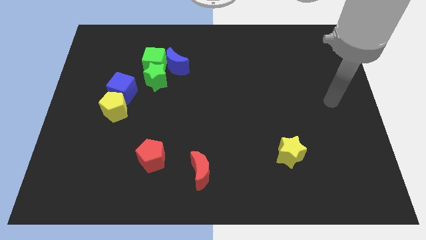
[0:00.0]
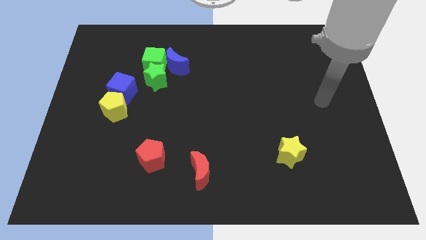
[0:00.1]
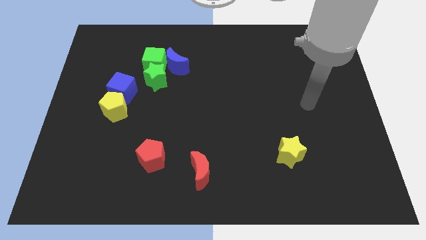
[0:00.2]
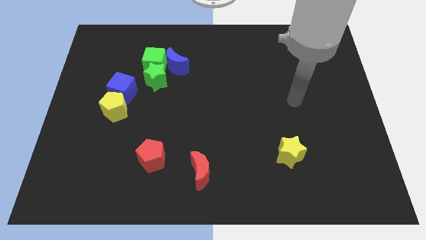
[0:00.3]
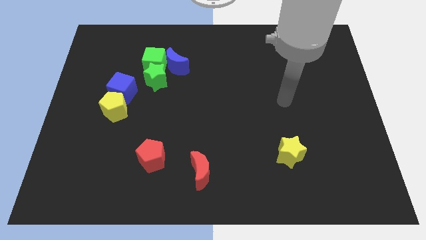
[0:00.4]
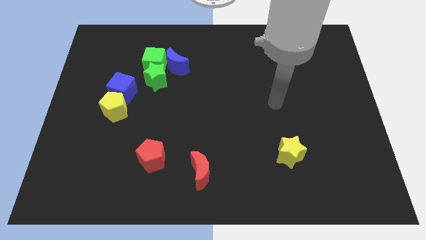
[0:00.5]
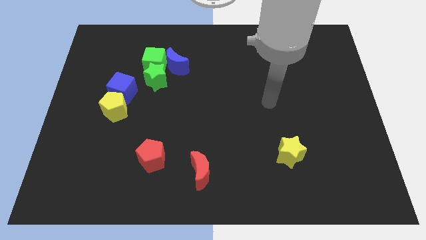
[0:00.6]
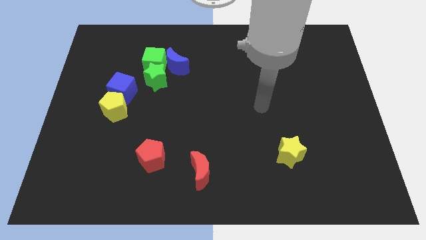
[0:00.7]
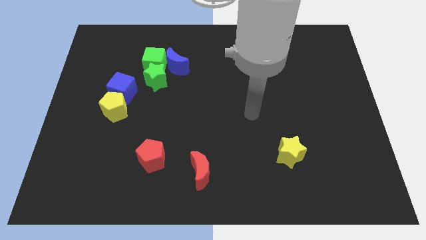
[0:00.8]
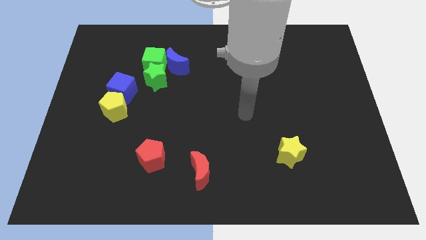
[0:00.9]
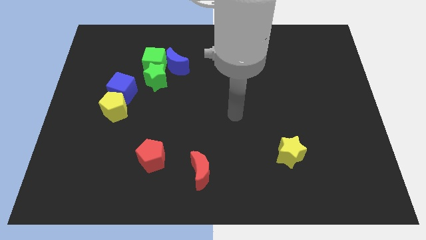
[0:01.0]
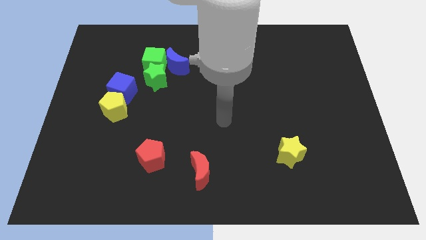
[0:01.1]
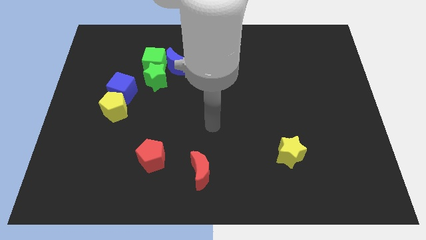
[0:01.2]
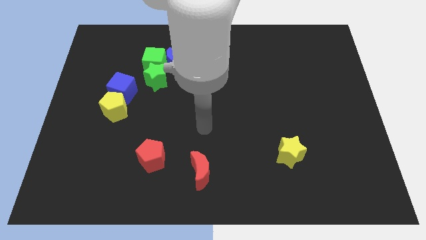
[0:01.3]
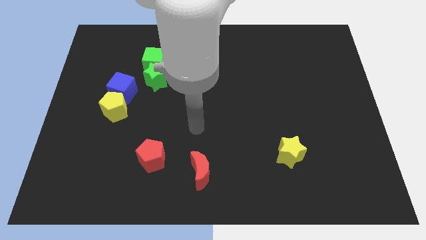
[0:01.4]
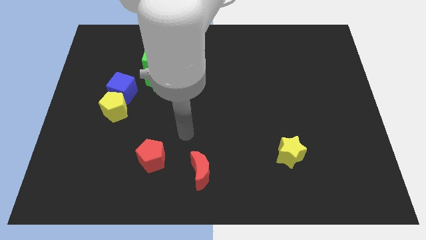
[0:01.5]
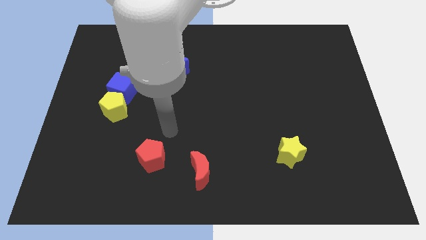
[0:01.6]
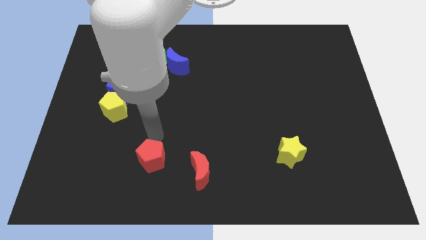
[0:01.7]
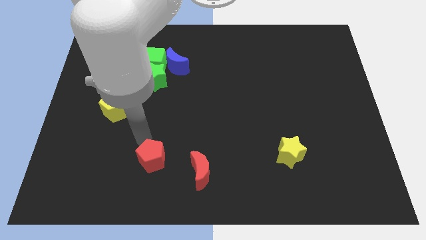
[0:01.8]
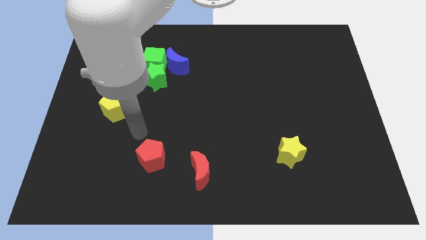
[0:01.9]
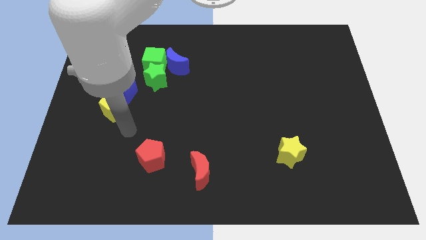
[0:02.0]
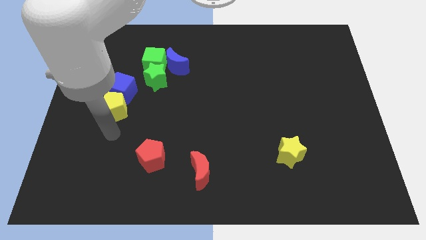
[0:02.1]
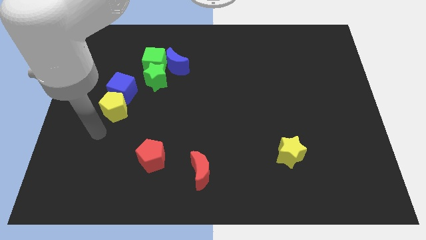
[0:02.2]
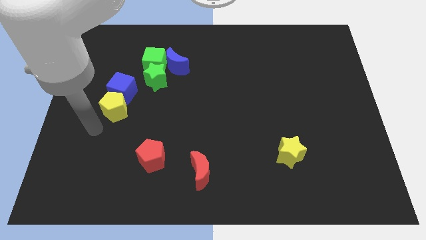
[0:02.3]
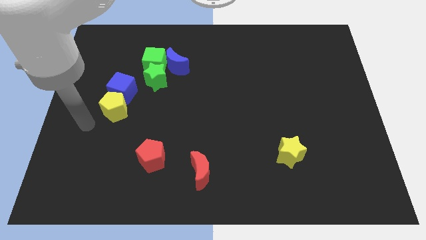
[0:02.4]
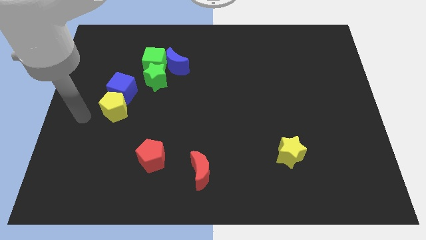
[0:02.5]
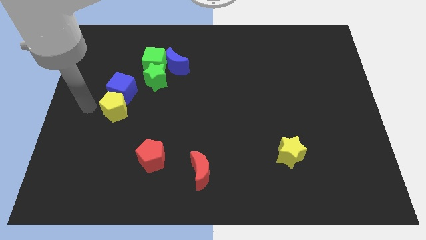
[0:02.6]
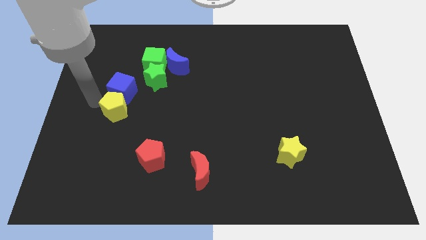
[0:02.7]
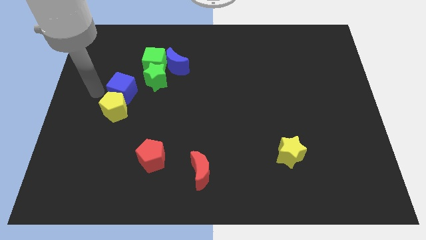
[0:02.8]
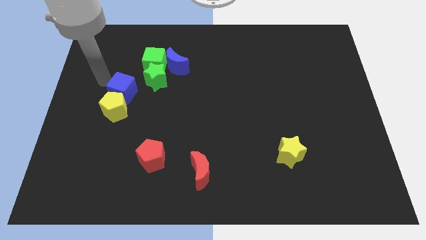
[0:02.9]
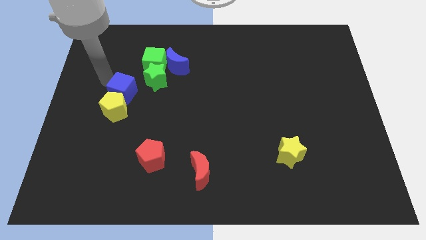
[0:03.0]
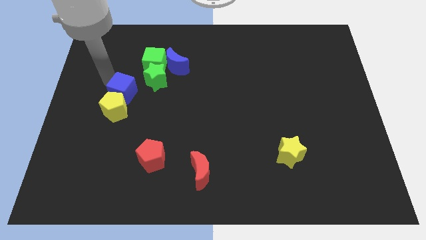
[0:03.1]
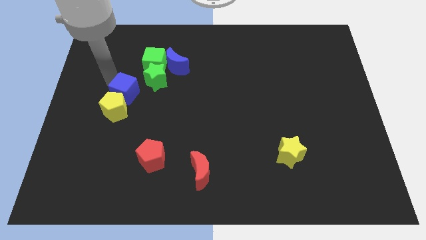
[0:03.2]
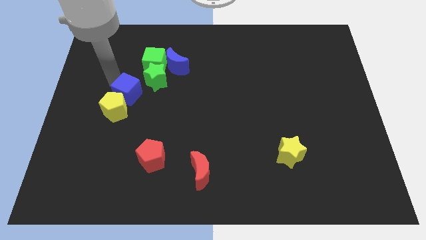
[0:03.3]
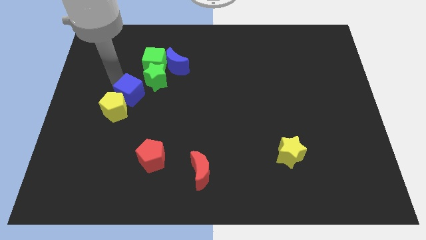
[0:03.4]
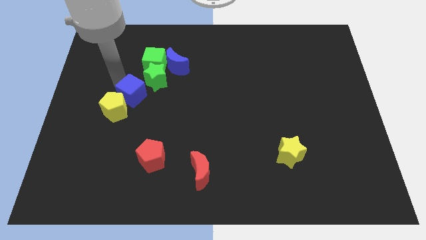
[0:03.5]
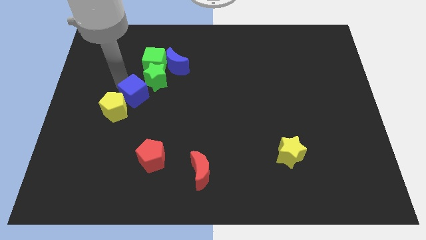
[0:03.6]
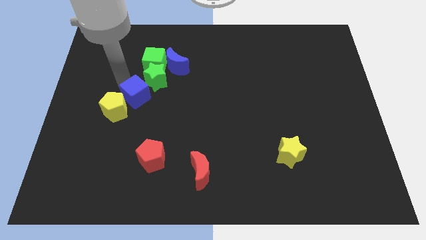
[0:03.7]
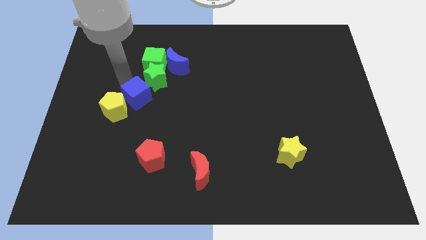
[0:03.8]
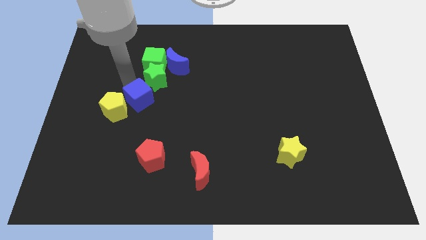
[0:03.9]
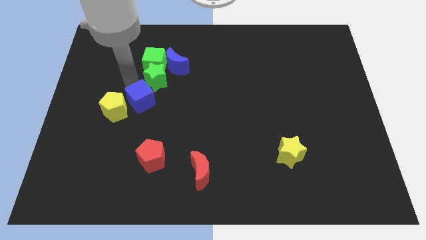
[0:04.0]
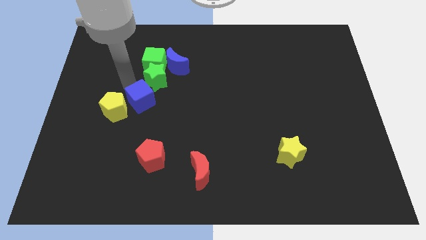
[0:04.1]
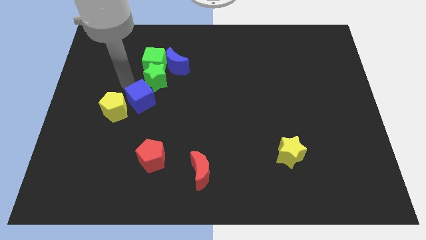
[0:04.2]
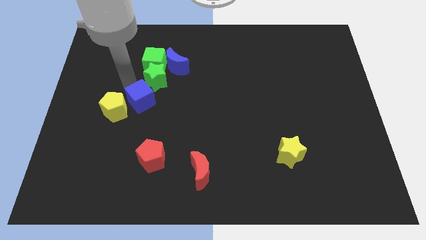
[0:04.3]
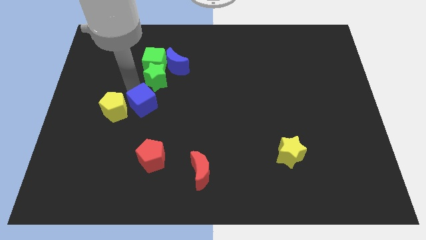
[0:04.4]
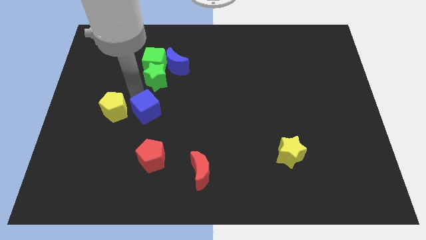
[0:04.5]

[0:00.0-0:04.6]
slightly push the blue cube down and then to the right

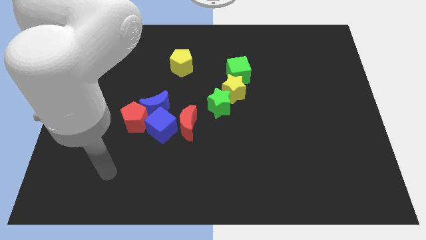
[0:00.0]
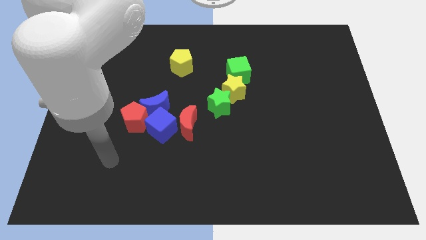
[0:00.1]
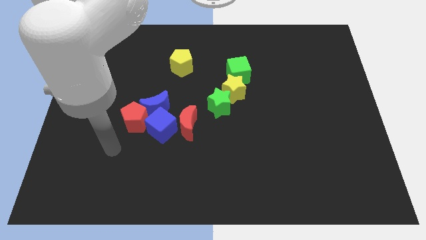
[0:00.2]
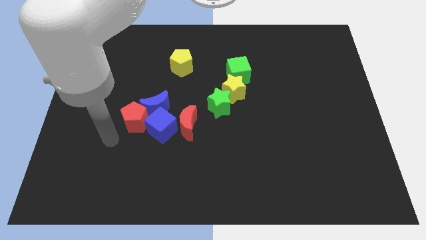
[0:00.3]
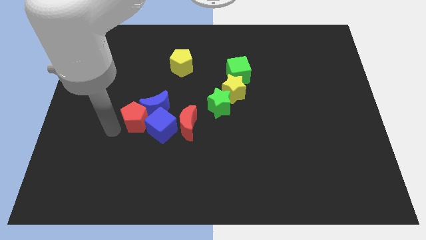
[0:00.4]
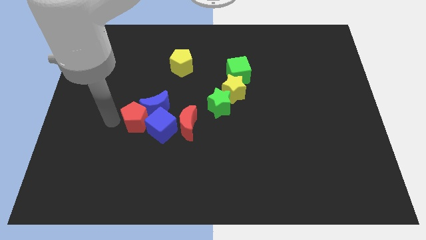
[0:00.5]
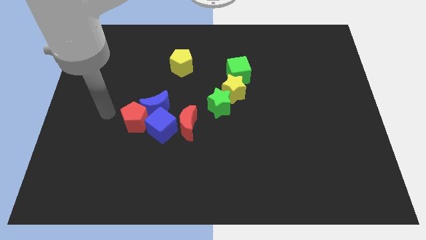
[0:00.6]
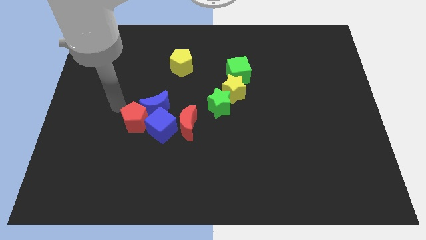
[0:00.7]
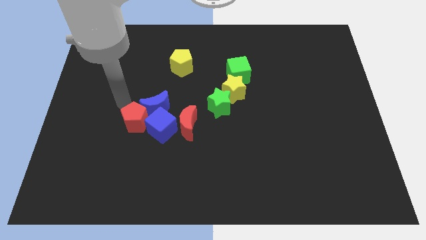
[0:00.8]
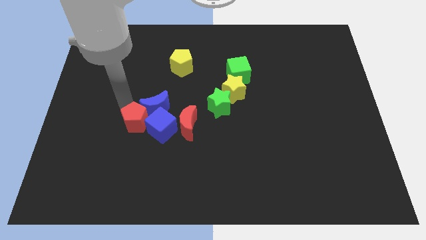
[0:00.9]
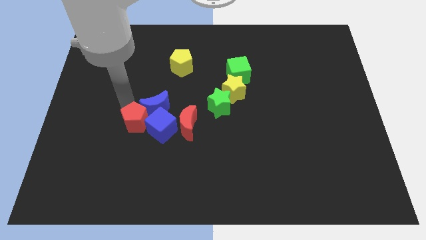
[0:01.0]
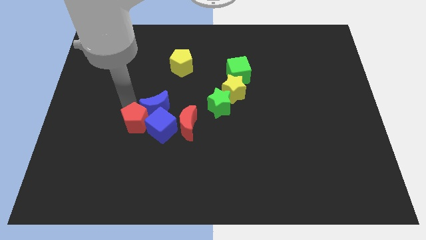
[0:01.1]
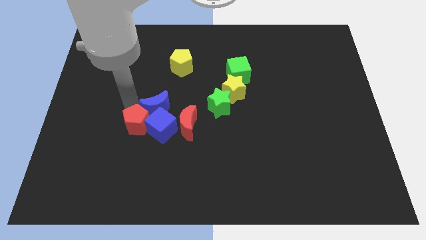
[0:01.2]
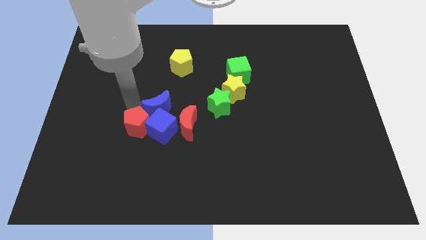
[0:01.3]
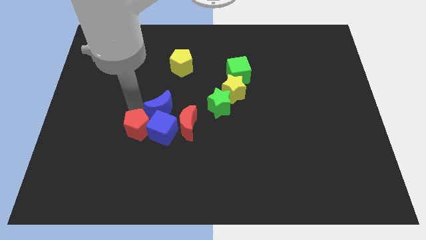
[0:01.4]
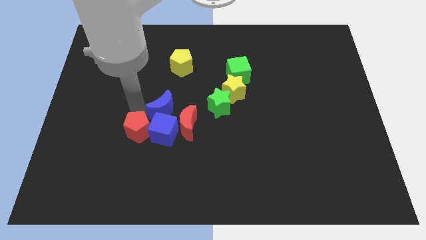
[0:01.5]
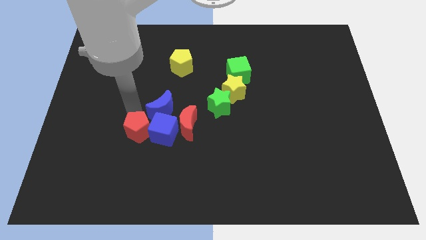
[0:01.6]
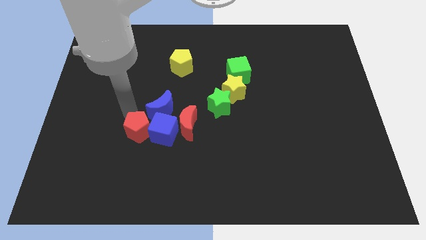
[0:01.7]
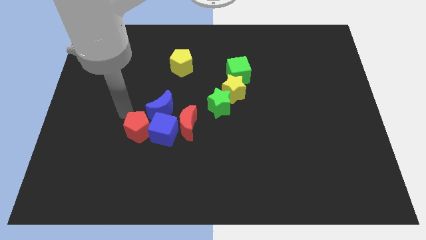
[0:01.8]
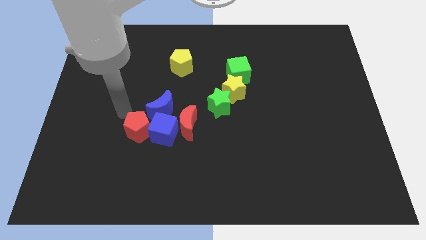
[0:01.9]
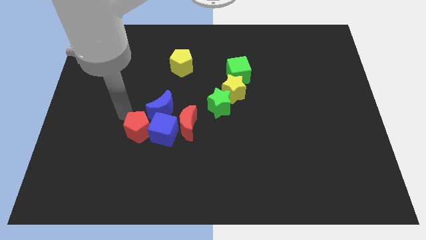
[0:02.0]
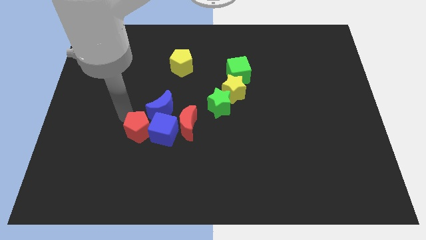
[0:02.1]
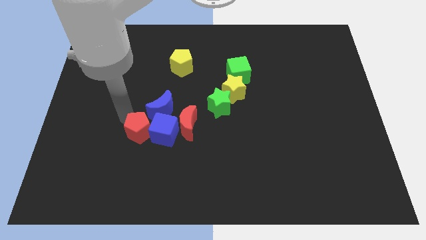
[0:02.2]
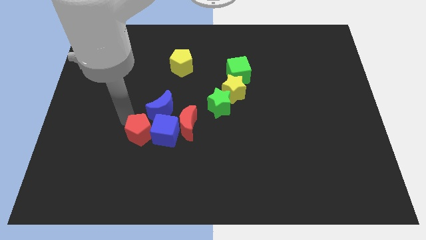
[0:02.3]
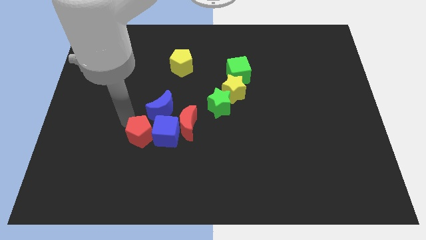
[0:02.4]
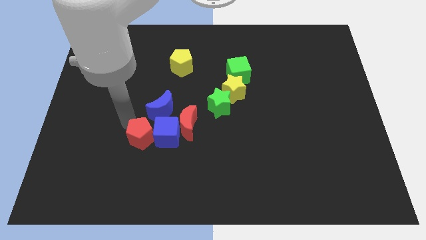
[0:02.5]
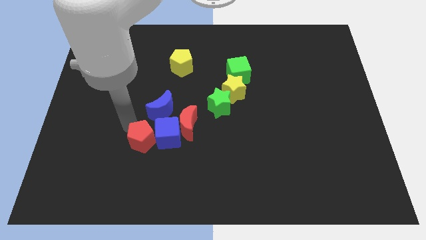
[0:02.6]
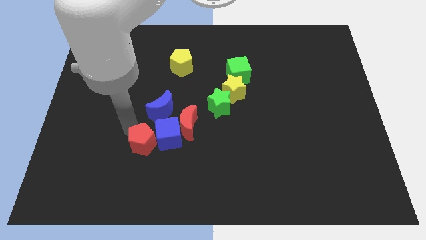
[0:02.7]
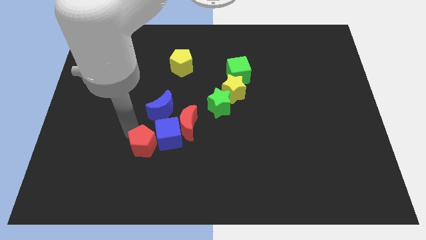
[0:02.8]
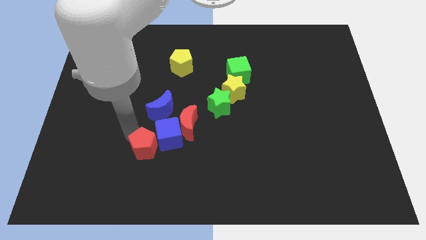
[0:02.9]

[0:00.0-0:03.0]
move the red pentagon downwards and to the right somewhat

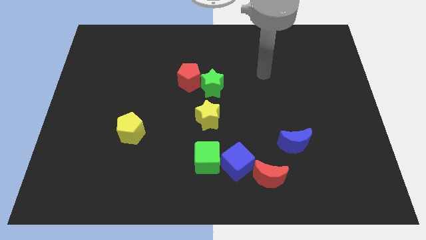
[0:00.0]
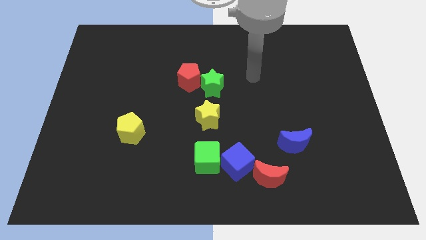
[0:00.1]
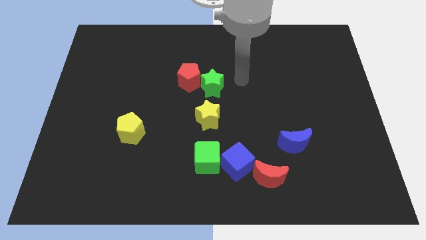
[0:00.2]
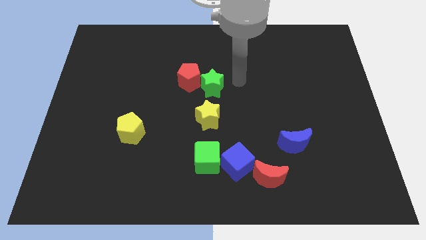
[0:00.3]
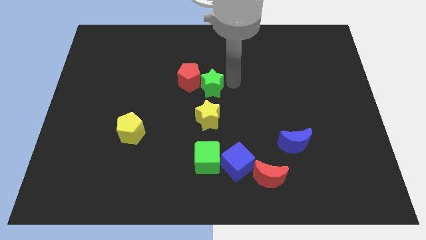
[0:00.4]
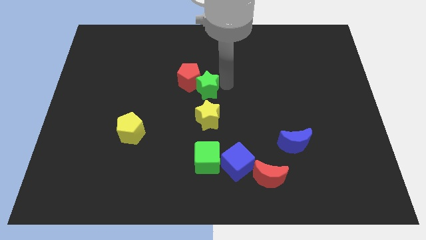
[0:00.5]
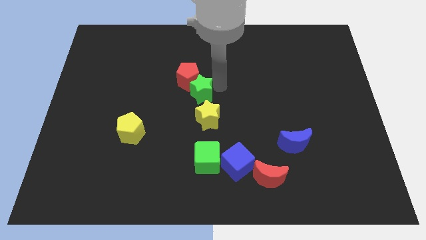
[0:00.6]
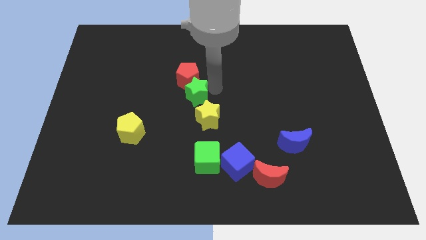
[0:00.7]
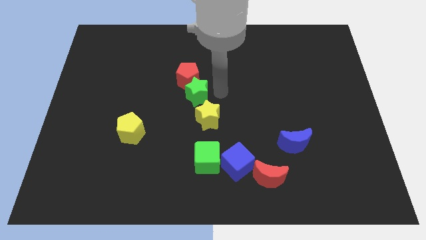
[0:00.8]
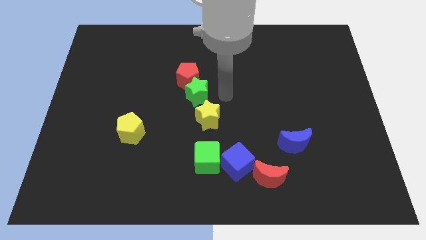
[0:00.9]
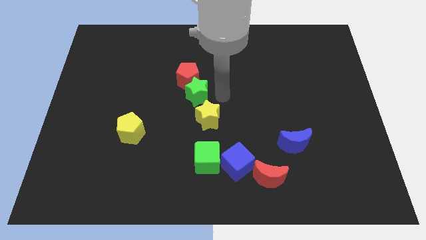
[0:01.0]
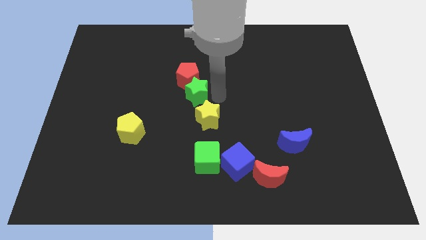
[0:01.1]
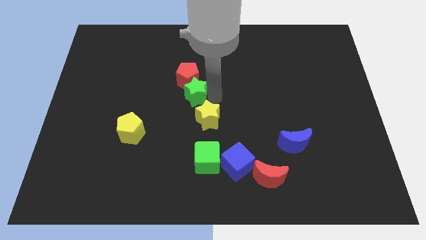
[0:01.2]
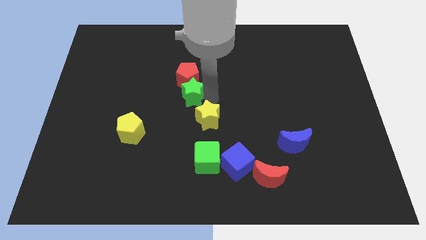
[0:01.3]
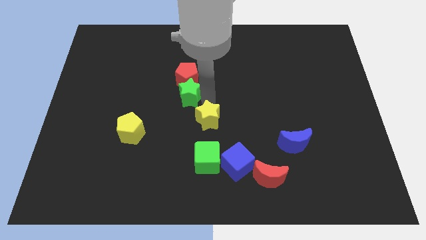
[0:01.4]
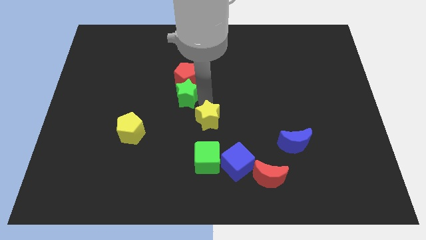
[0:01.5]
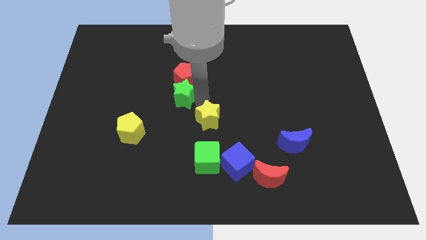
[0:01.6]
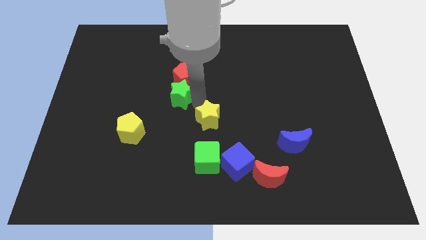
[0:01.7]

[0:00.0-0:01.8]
push the green star a bit to the left
